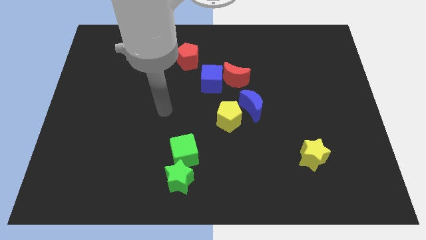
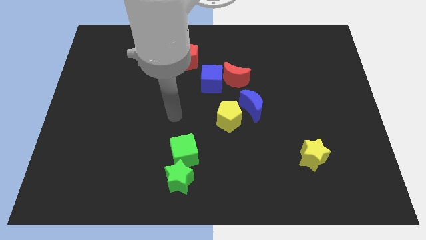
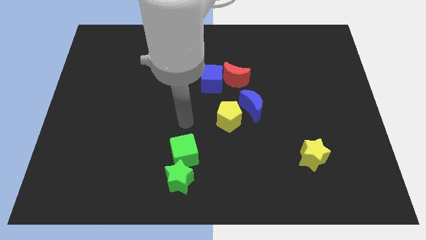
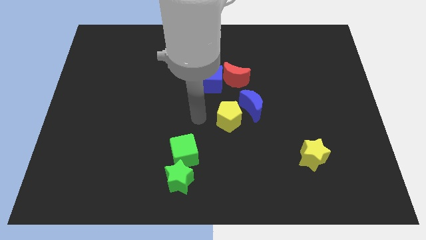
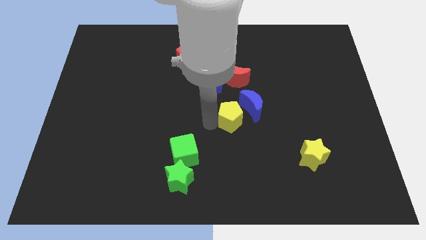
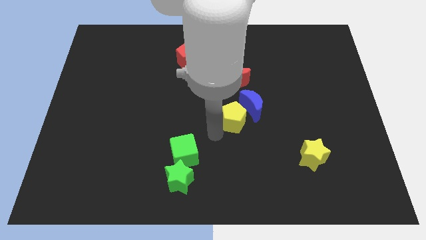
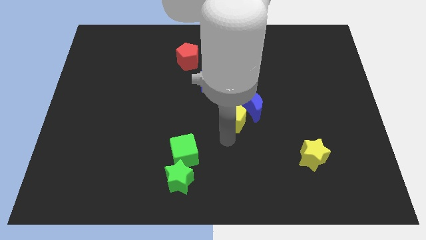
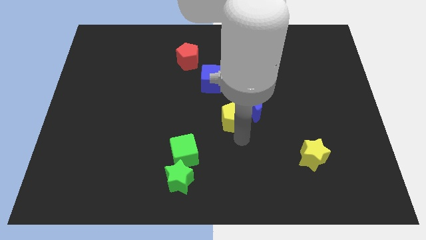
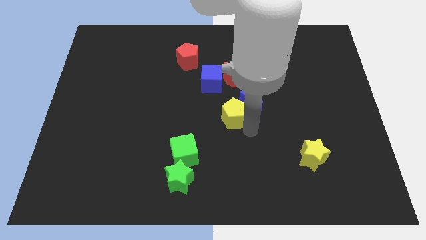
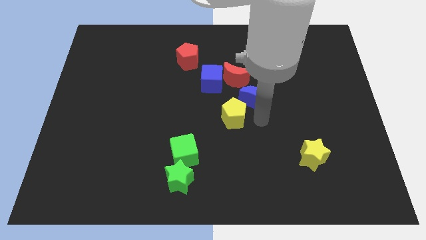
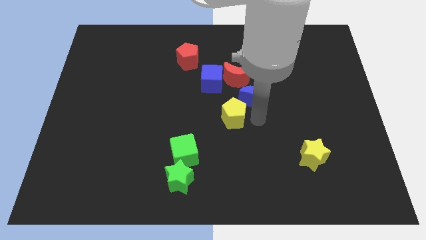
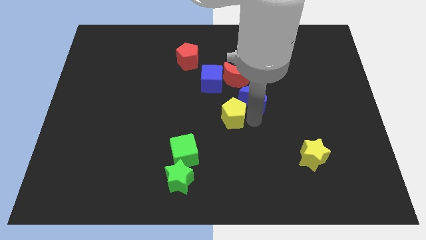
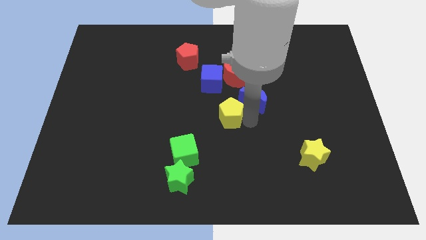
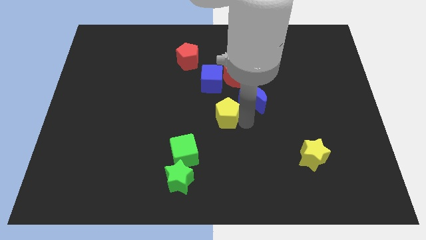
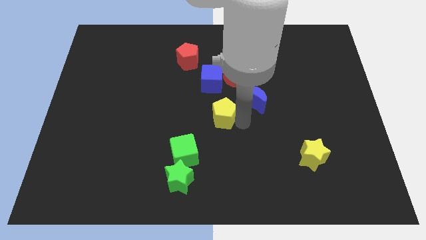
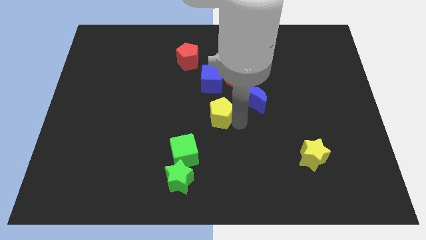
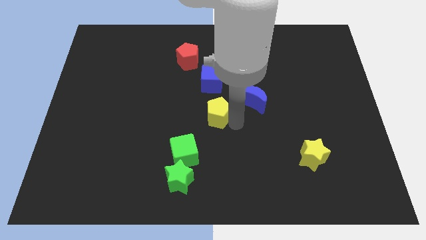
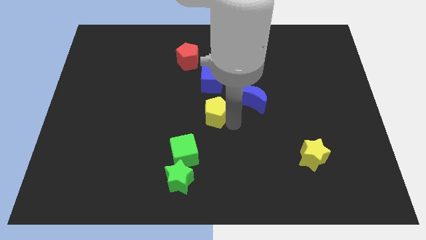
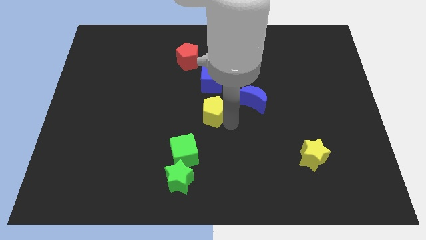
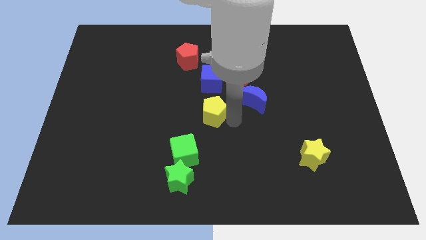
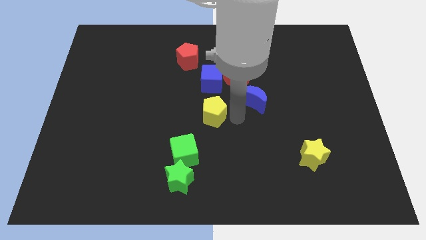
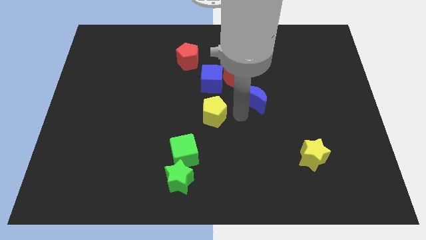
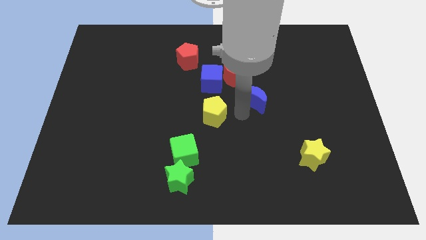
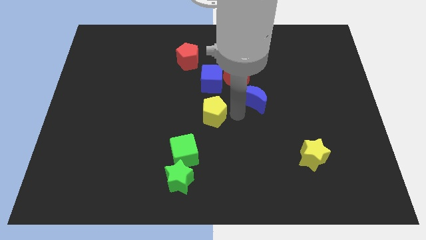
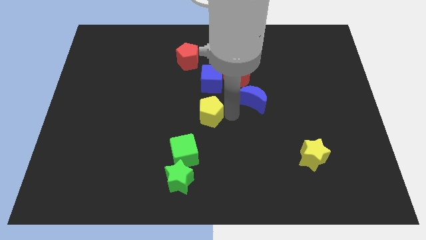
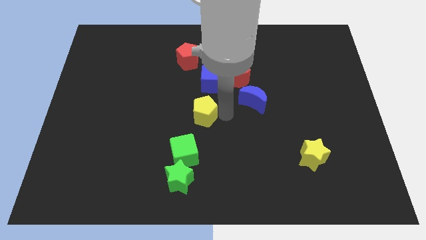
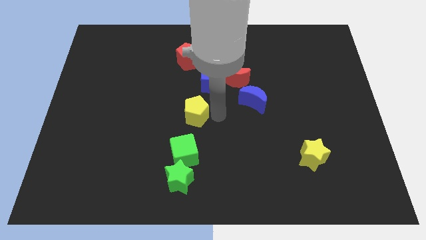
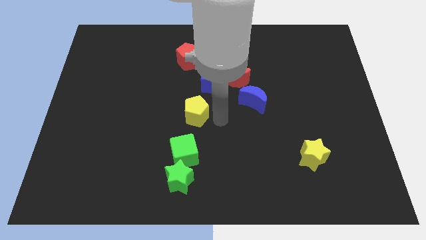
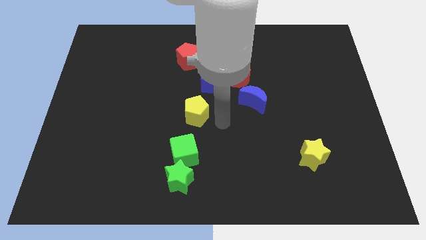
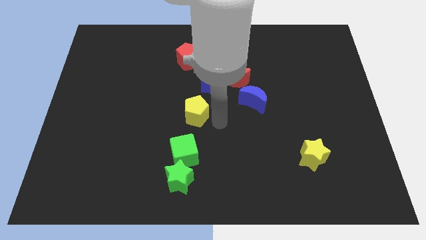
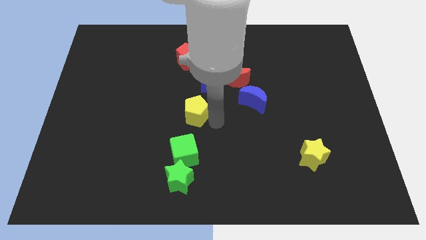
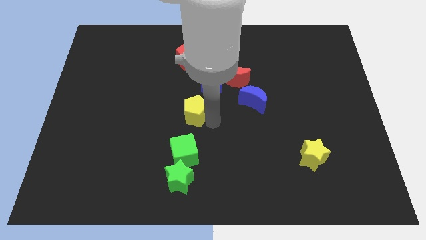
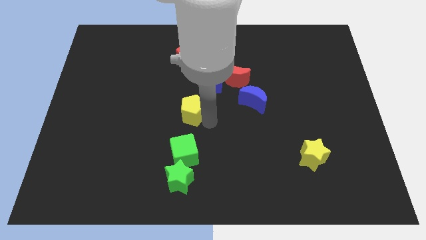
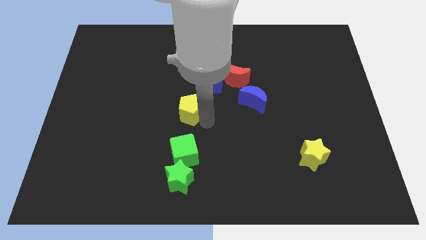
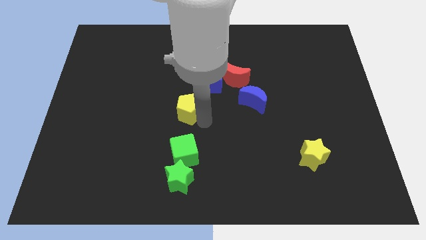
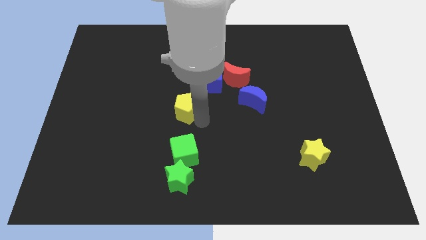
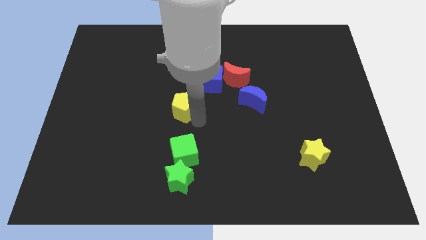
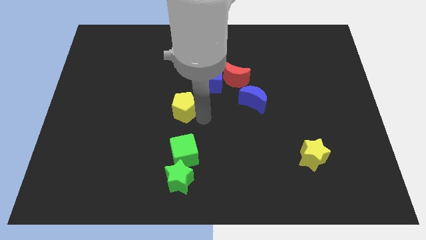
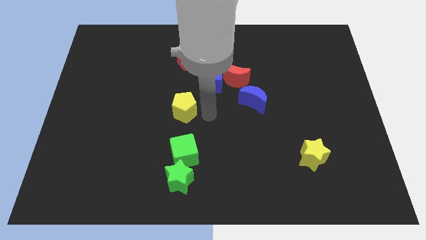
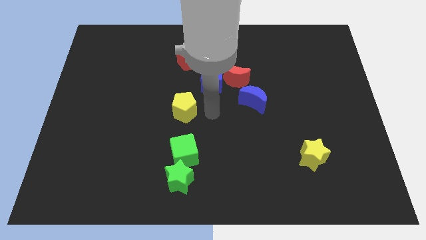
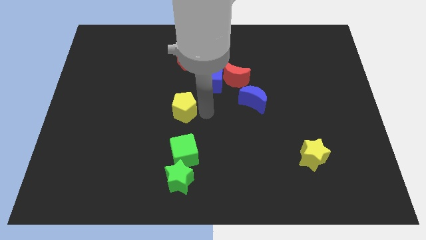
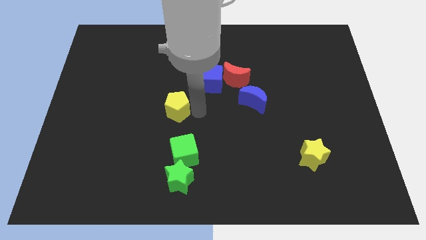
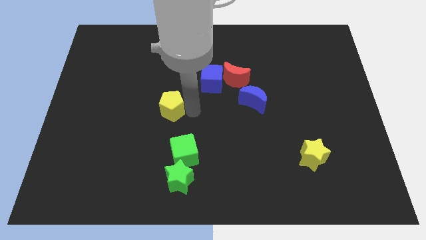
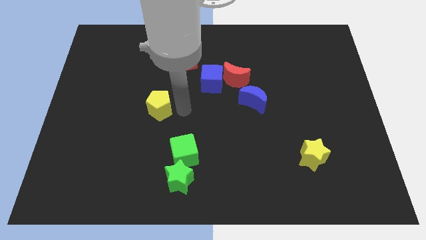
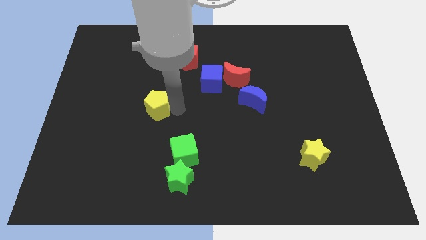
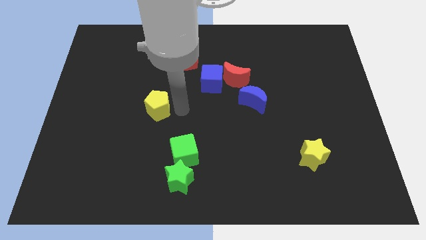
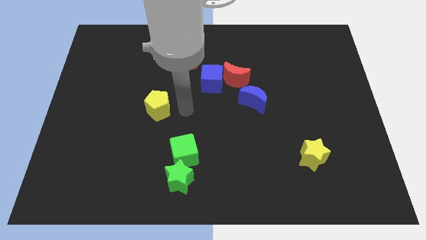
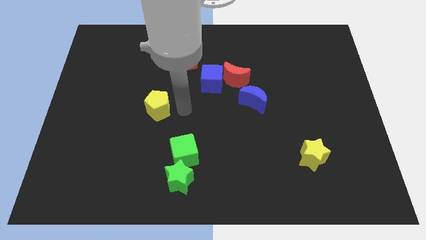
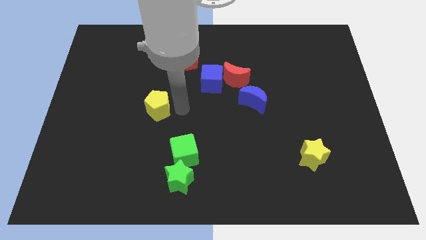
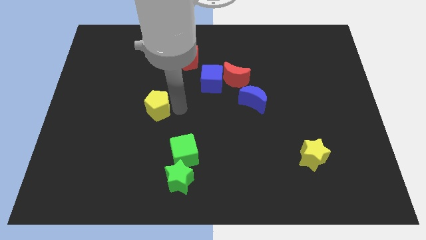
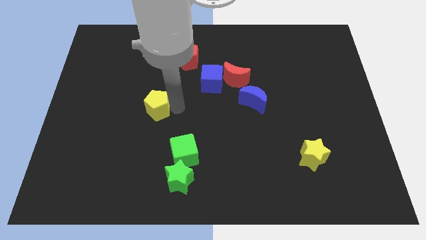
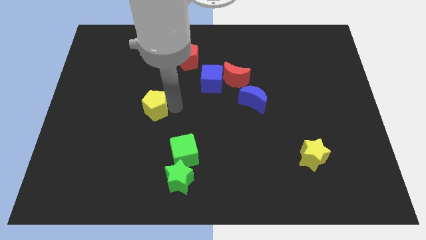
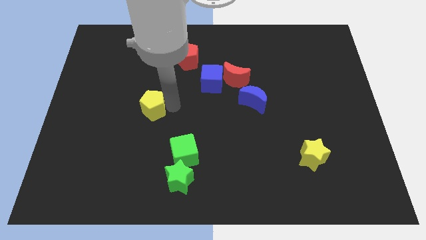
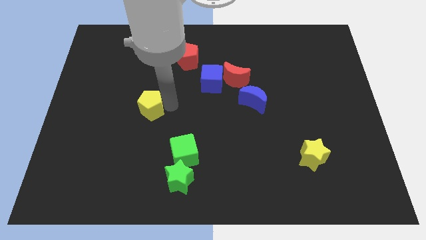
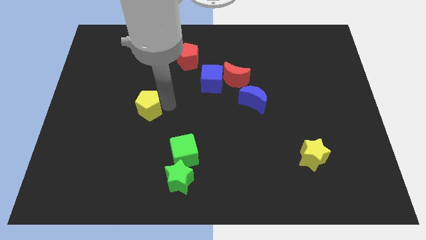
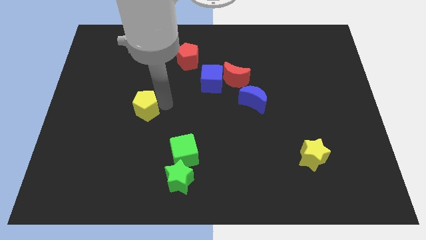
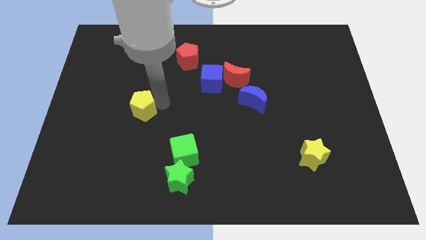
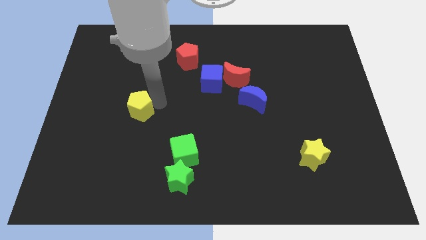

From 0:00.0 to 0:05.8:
slide the yellow pentagon to the left

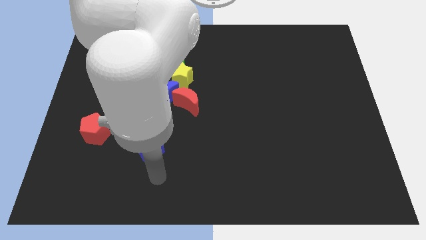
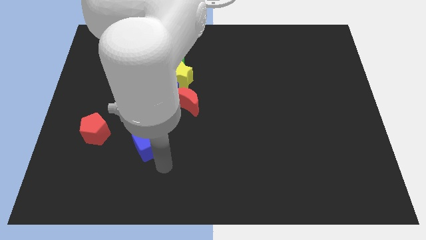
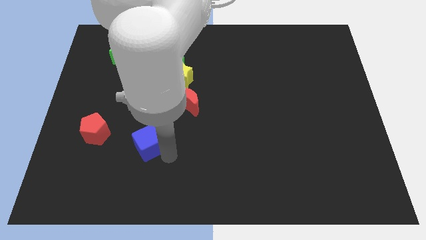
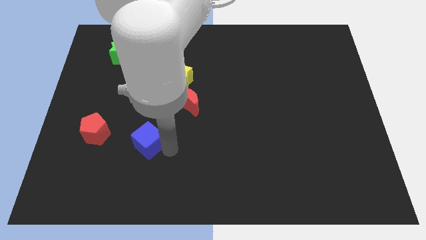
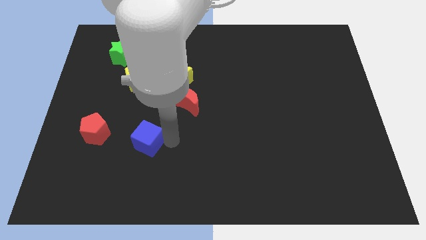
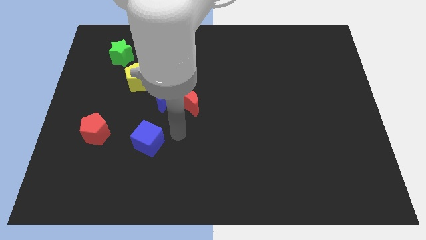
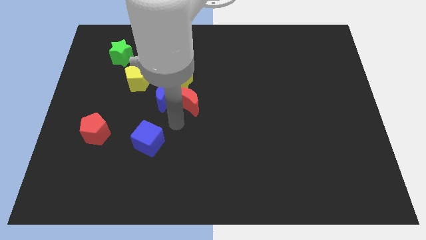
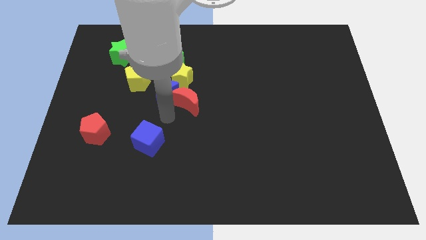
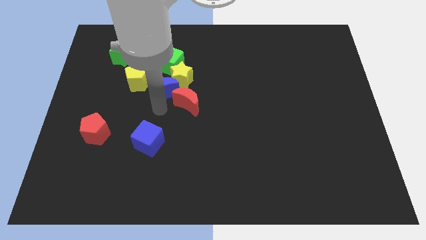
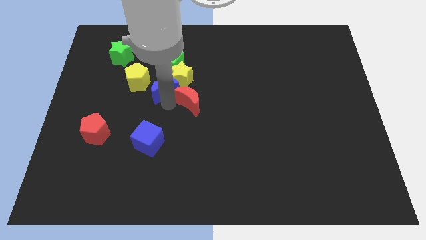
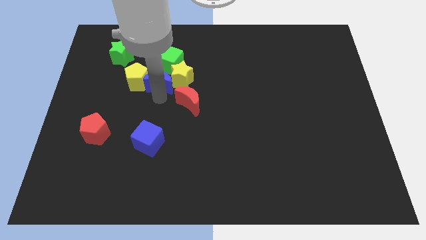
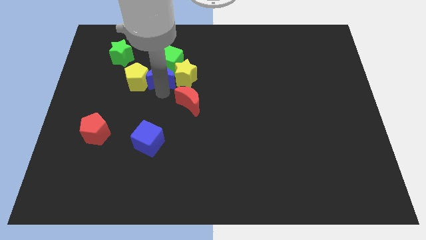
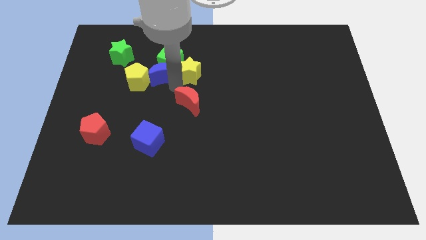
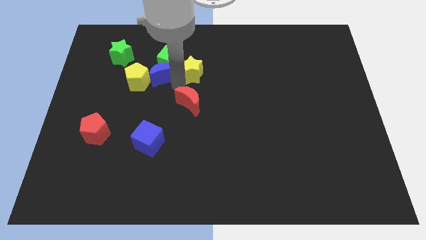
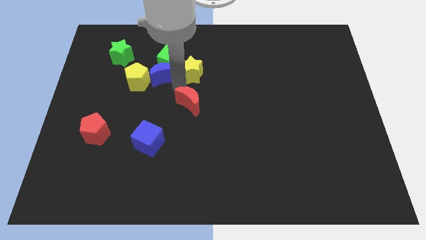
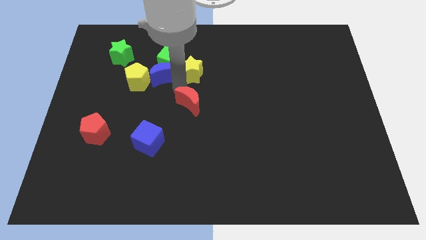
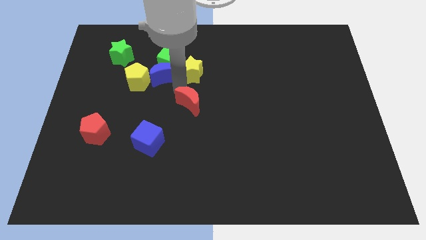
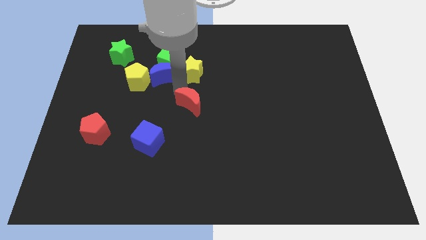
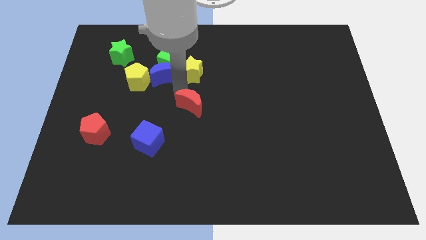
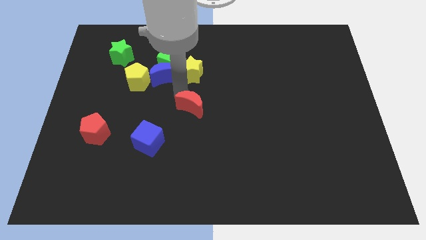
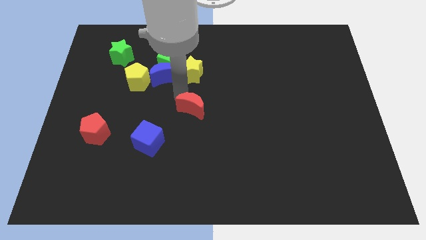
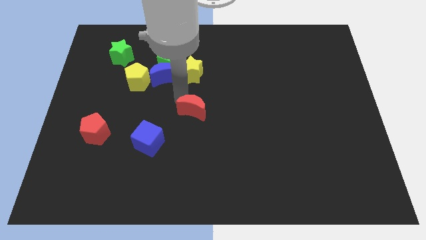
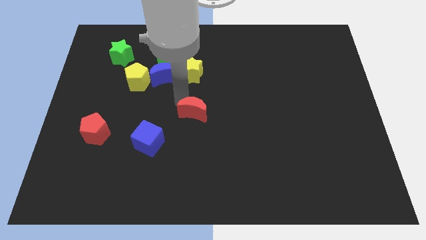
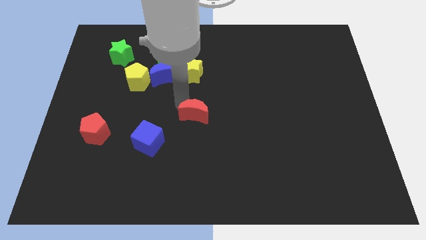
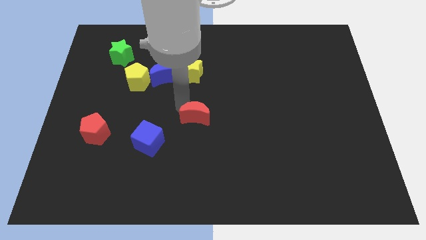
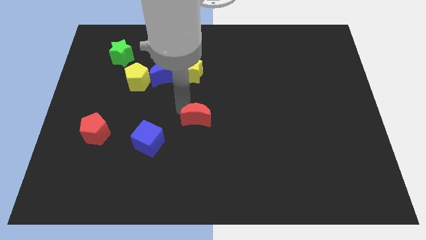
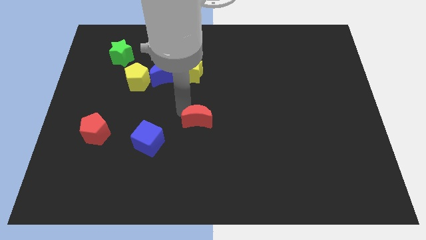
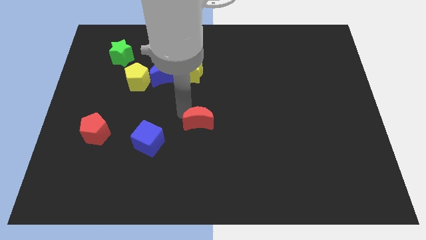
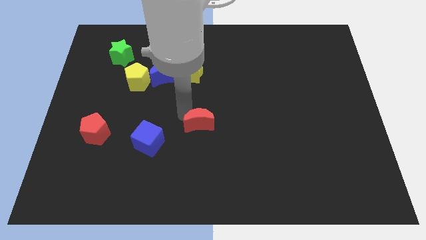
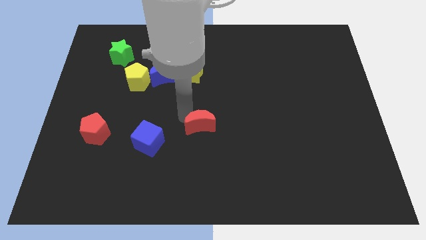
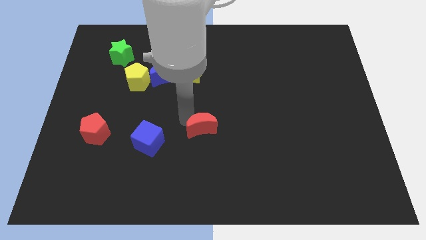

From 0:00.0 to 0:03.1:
push the red moon a bit diagonally down and right
